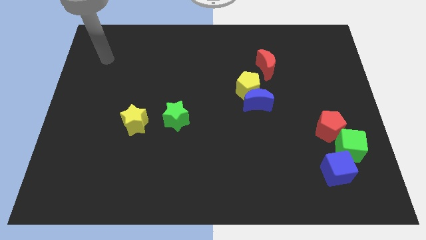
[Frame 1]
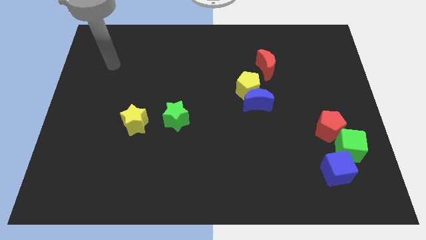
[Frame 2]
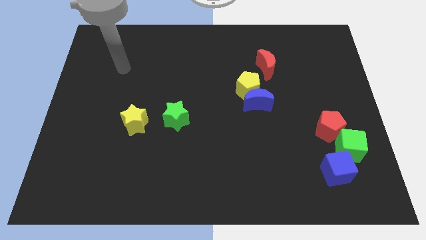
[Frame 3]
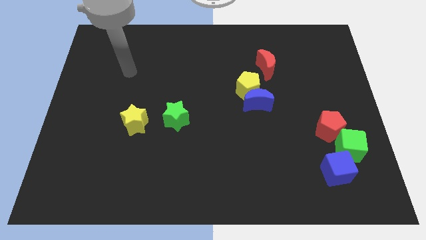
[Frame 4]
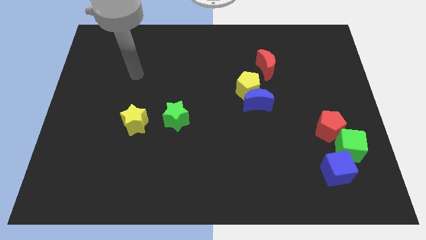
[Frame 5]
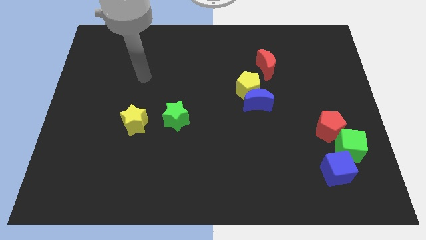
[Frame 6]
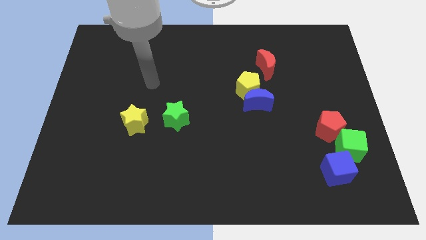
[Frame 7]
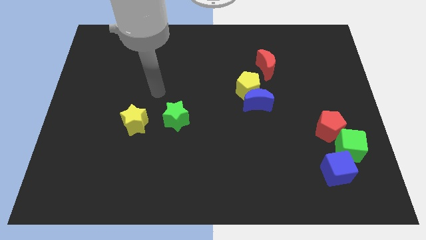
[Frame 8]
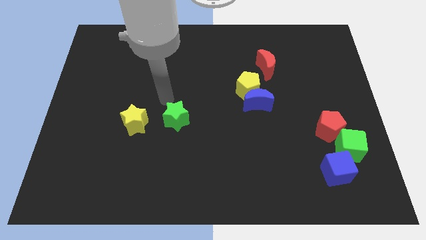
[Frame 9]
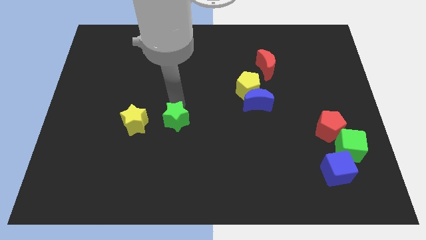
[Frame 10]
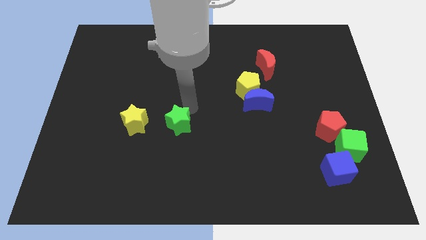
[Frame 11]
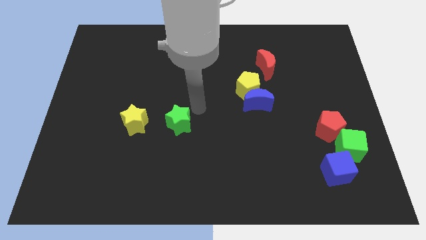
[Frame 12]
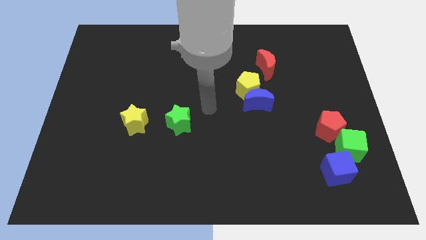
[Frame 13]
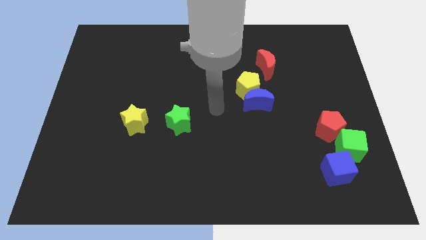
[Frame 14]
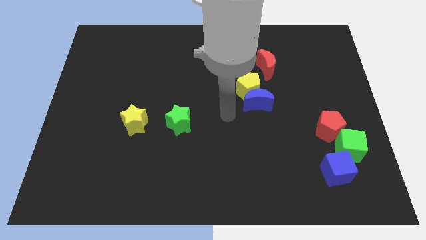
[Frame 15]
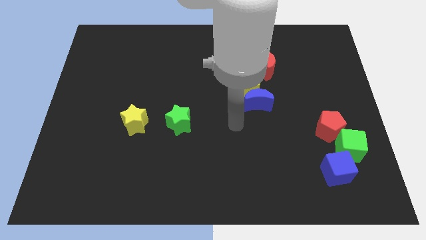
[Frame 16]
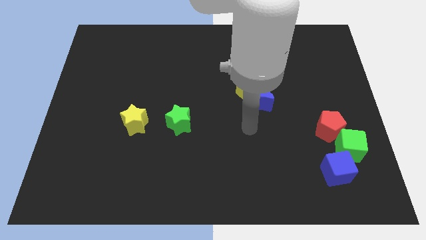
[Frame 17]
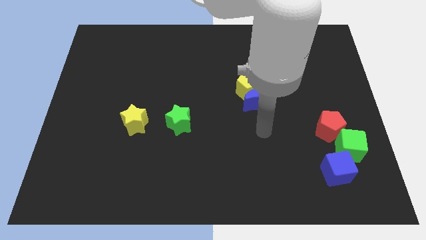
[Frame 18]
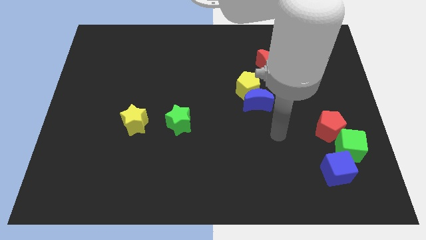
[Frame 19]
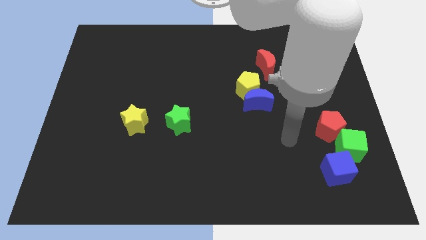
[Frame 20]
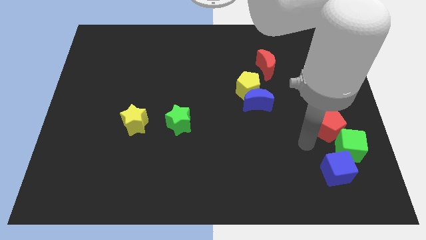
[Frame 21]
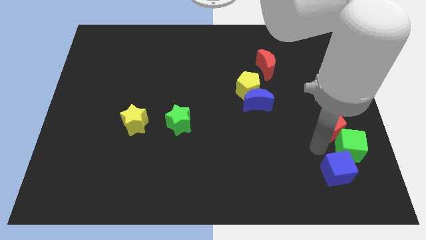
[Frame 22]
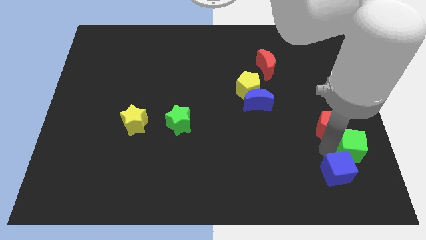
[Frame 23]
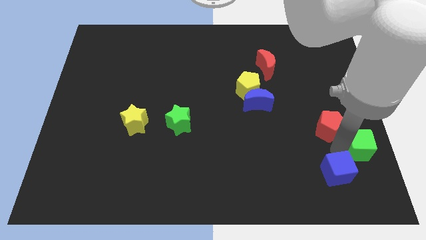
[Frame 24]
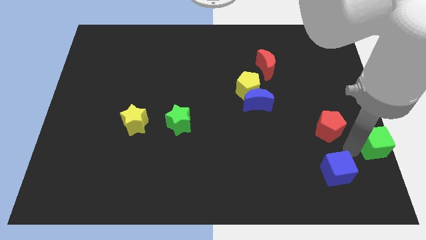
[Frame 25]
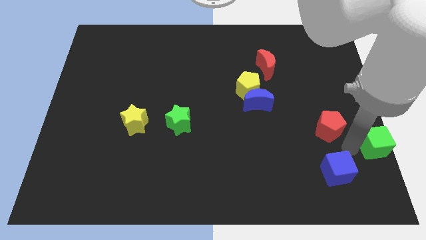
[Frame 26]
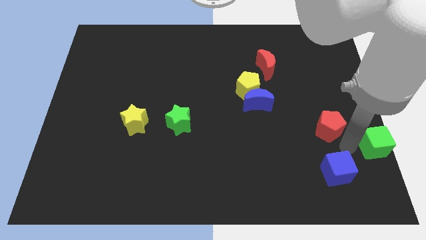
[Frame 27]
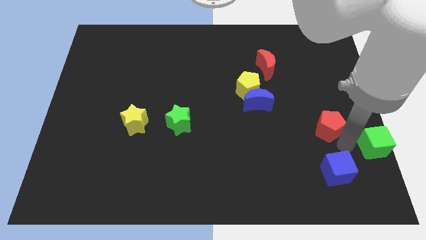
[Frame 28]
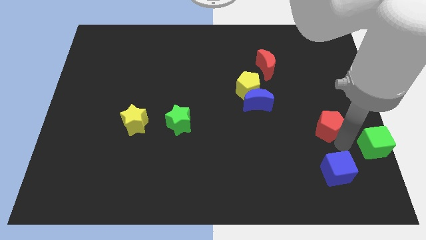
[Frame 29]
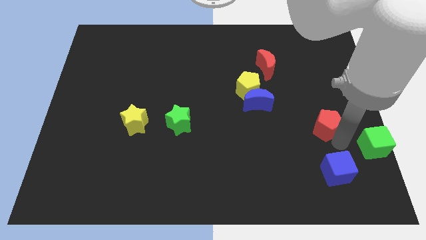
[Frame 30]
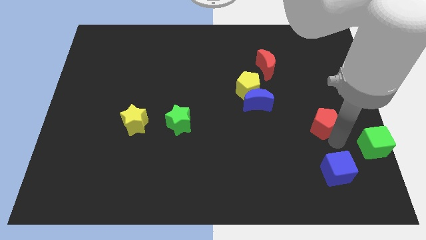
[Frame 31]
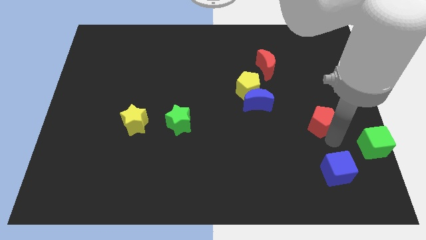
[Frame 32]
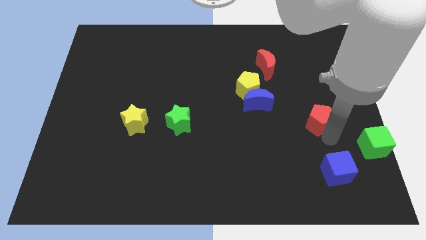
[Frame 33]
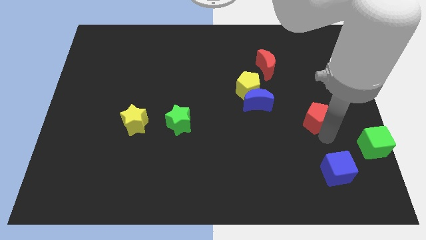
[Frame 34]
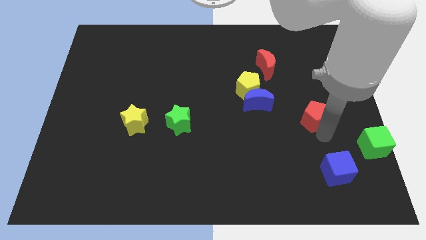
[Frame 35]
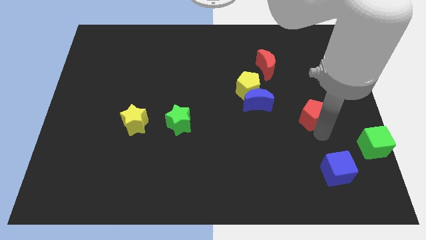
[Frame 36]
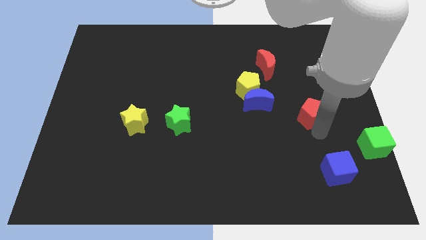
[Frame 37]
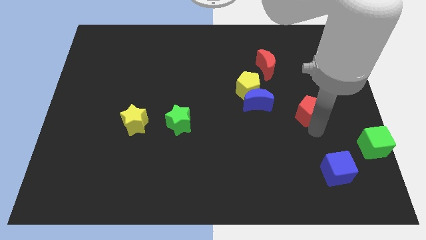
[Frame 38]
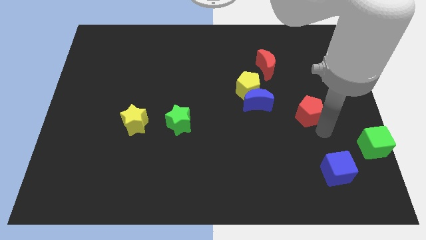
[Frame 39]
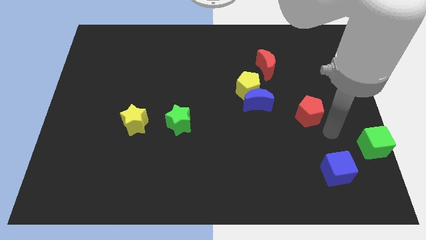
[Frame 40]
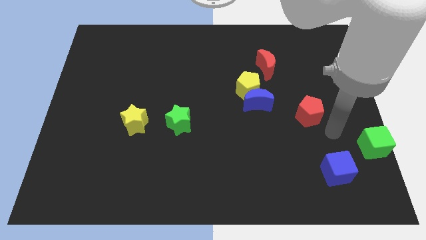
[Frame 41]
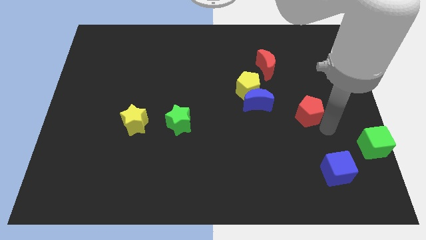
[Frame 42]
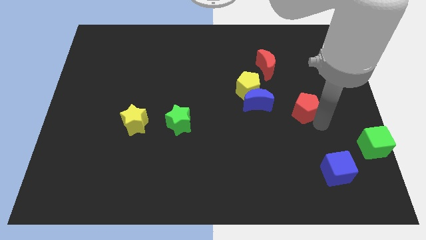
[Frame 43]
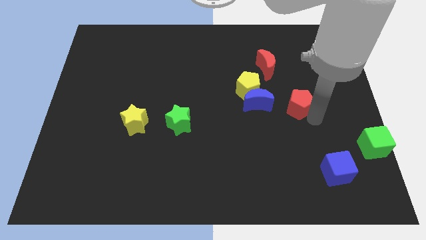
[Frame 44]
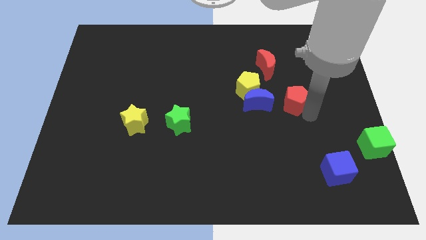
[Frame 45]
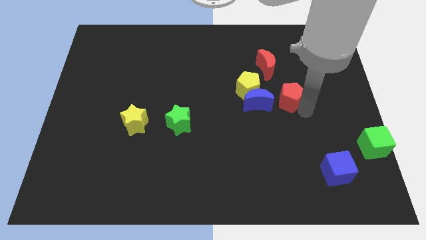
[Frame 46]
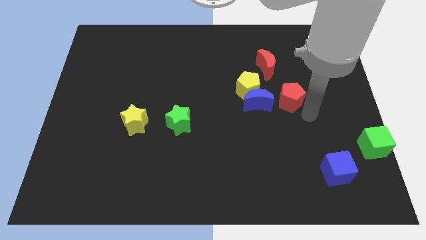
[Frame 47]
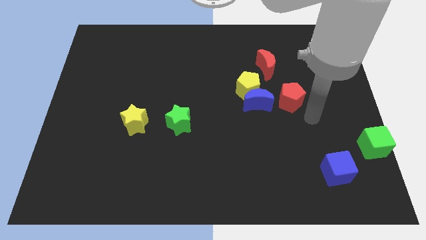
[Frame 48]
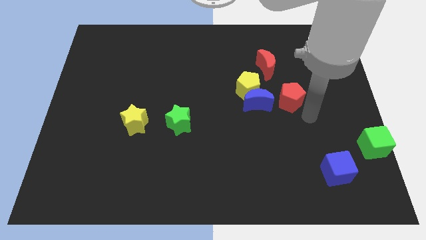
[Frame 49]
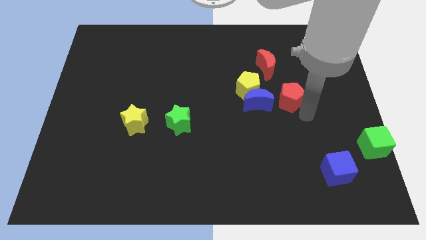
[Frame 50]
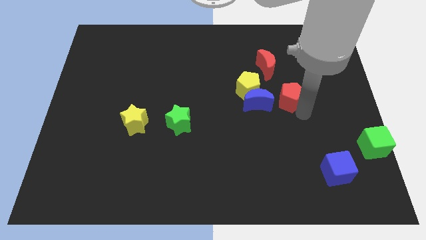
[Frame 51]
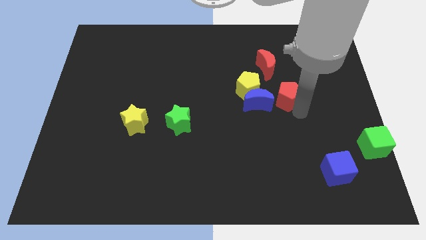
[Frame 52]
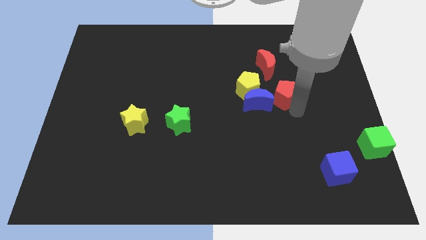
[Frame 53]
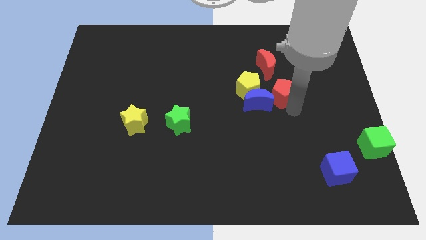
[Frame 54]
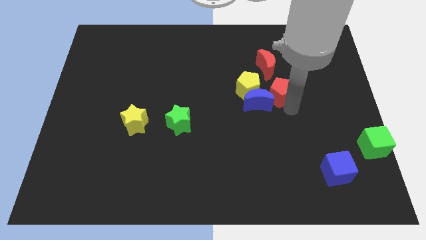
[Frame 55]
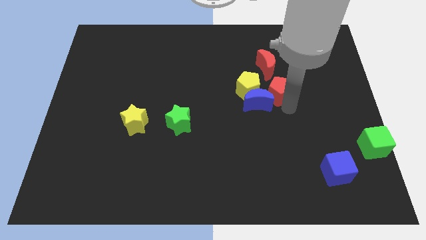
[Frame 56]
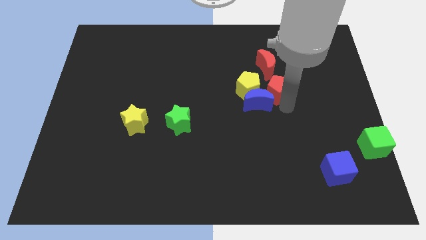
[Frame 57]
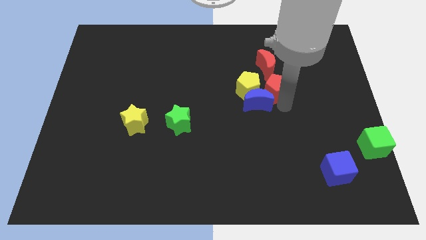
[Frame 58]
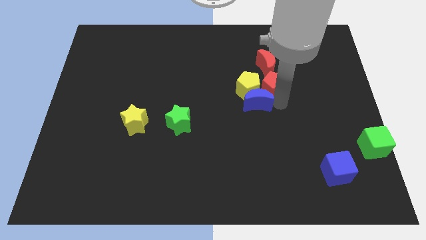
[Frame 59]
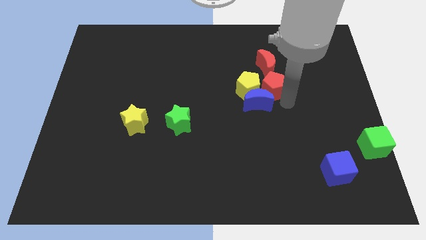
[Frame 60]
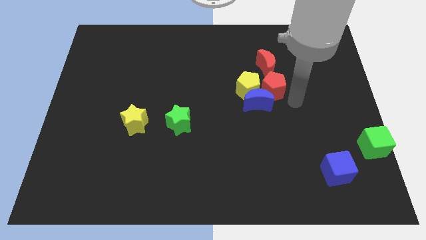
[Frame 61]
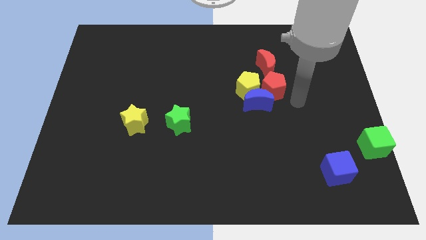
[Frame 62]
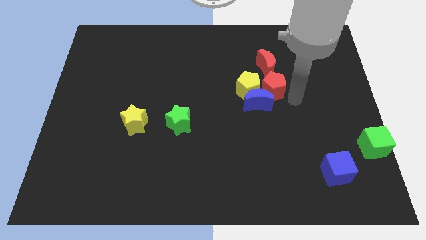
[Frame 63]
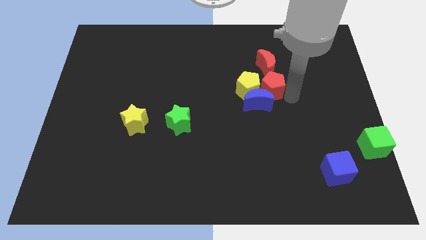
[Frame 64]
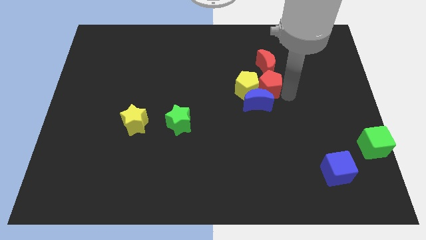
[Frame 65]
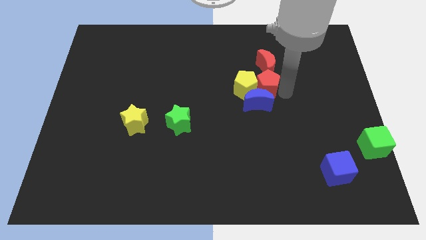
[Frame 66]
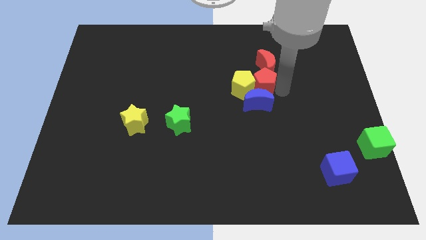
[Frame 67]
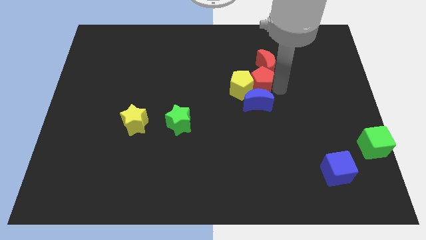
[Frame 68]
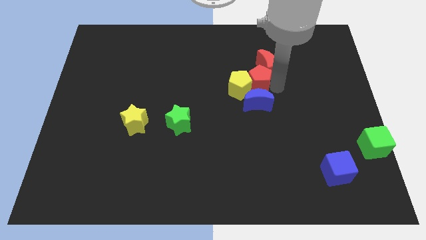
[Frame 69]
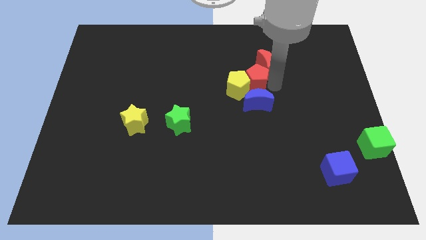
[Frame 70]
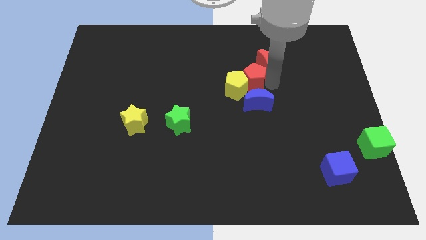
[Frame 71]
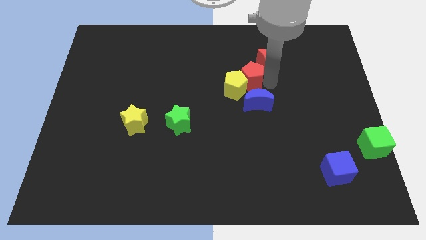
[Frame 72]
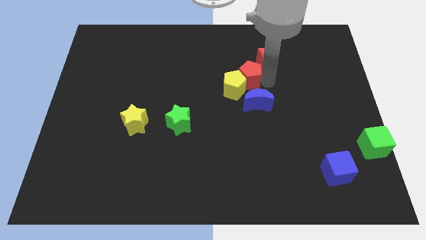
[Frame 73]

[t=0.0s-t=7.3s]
push the red pentagon to the top side of the yellow pentagon

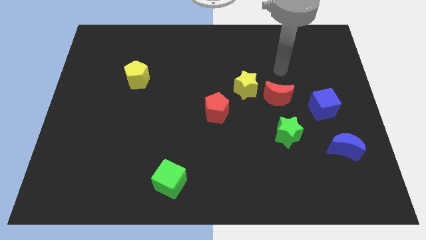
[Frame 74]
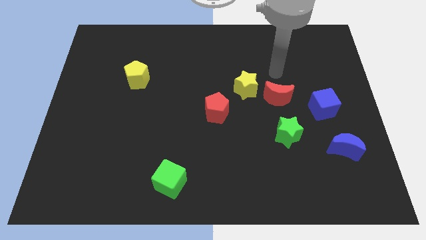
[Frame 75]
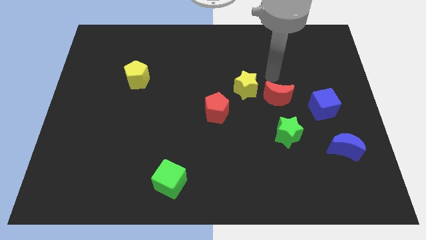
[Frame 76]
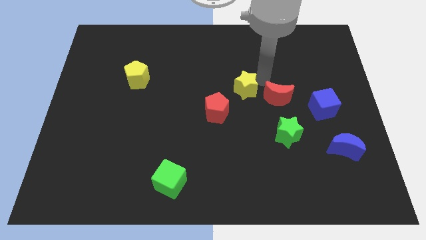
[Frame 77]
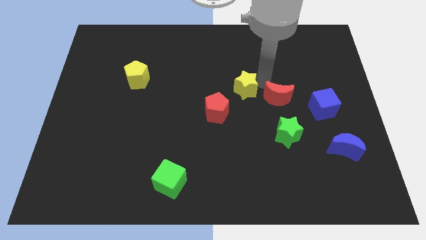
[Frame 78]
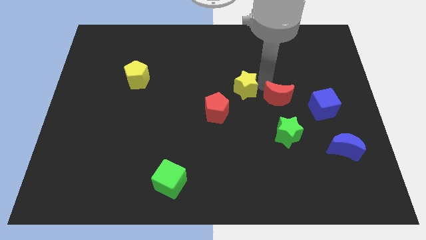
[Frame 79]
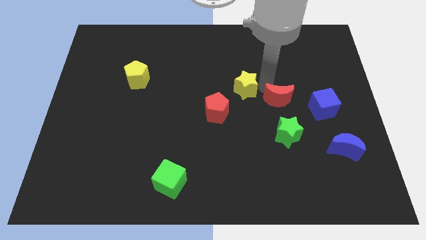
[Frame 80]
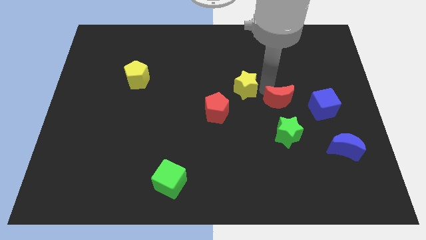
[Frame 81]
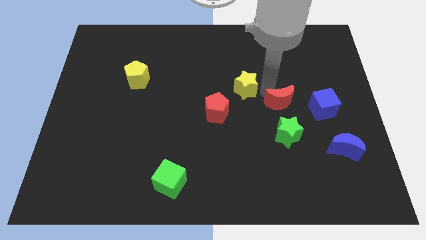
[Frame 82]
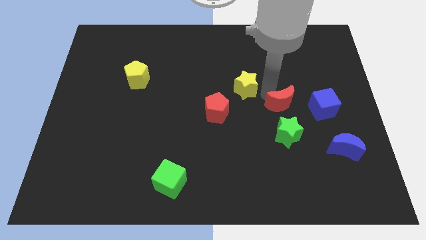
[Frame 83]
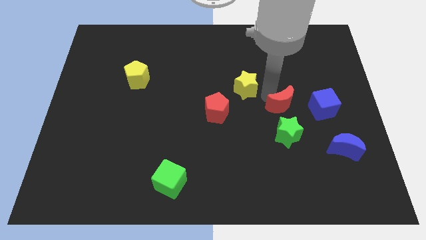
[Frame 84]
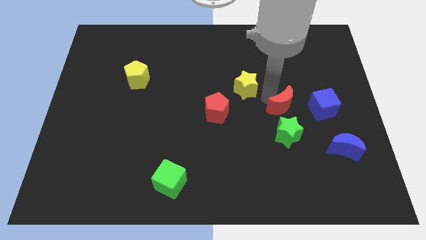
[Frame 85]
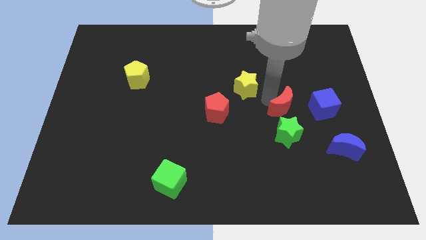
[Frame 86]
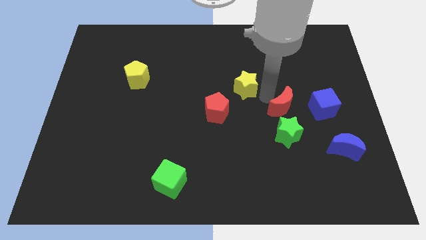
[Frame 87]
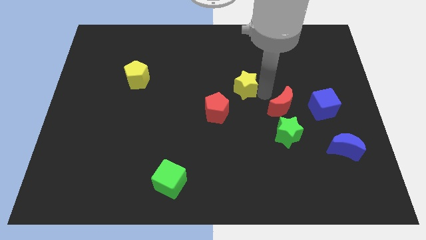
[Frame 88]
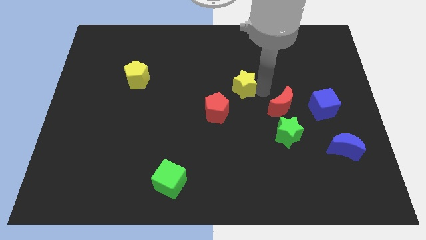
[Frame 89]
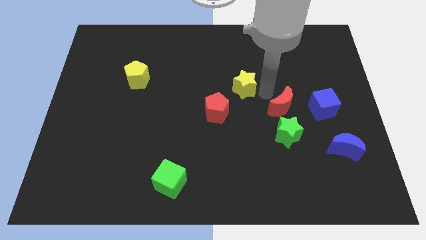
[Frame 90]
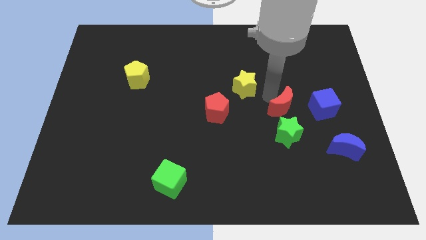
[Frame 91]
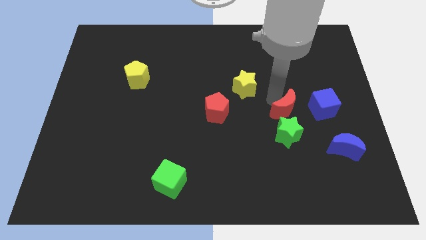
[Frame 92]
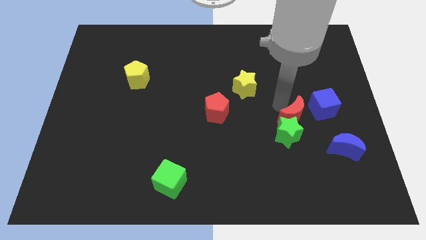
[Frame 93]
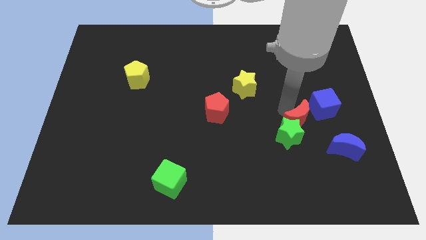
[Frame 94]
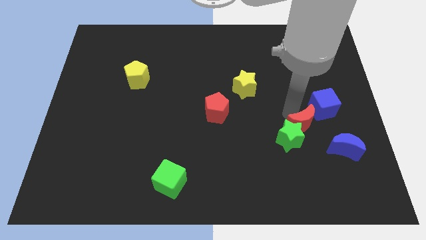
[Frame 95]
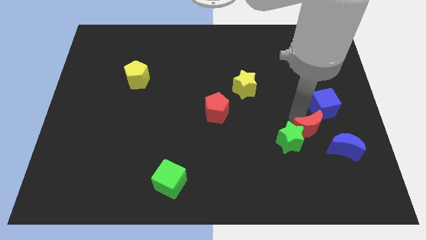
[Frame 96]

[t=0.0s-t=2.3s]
slide the red moon below the blue cube
